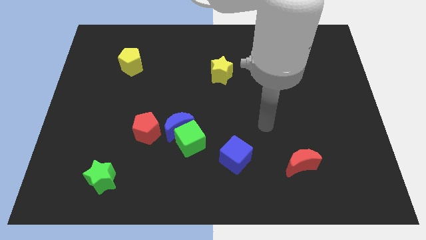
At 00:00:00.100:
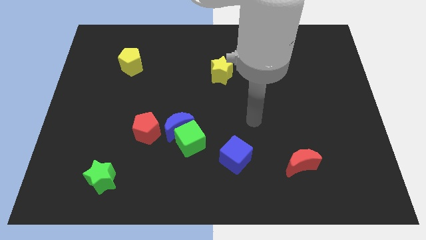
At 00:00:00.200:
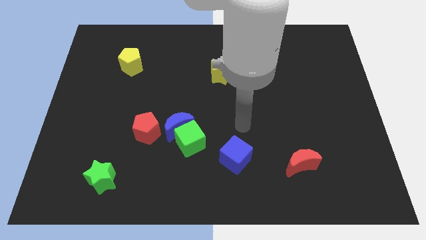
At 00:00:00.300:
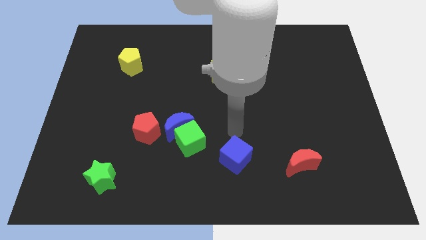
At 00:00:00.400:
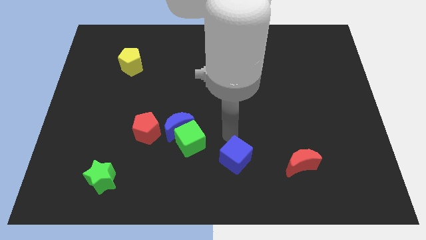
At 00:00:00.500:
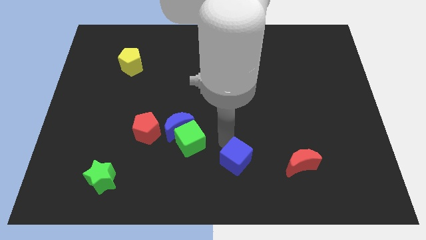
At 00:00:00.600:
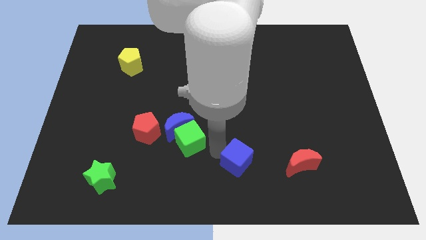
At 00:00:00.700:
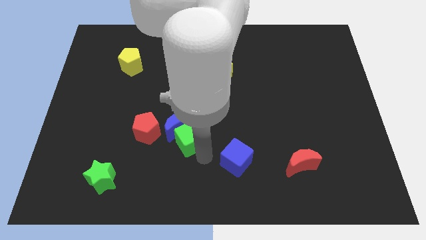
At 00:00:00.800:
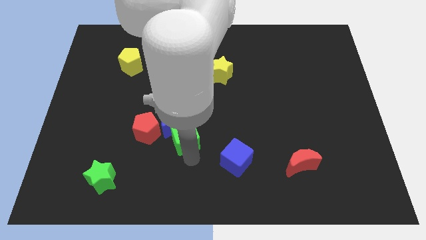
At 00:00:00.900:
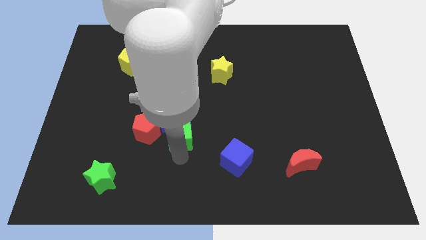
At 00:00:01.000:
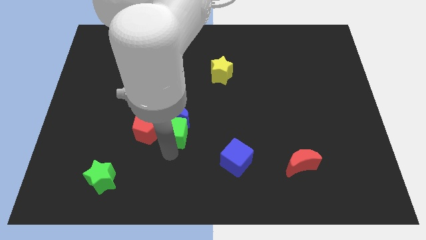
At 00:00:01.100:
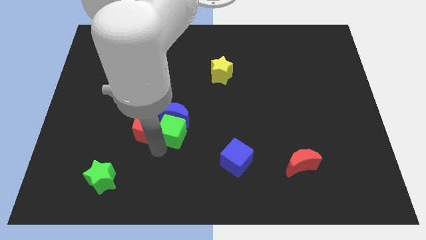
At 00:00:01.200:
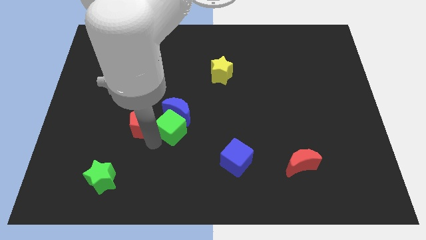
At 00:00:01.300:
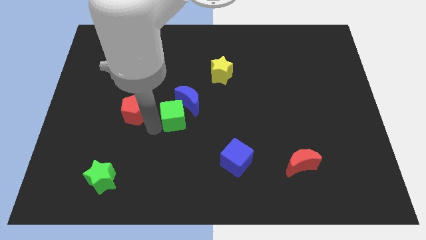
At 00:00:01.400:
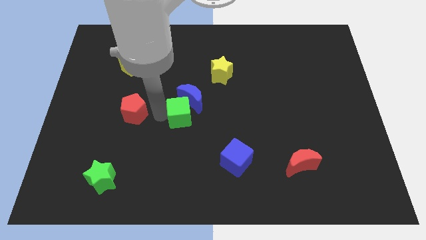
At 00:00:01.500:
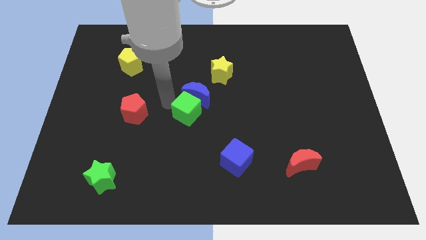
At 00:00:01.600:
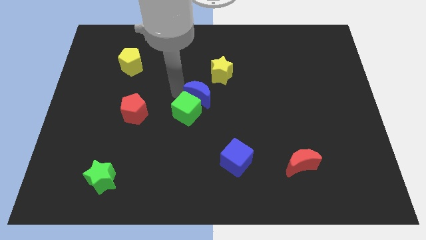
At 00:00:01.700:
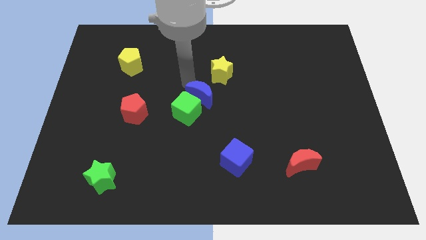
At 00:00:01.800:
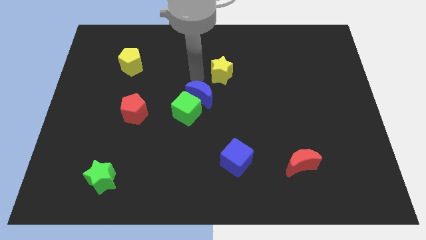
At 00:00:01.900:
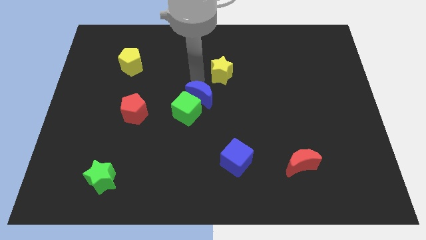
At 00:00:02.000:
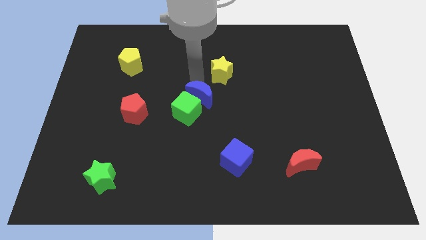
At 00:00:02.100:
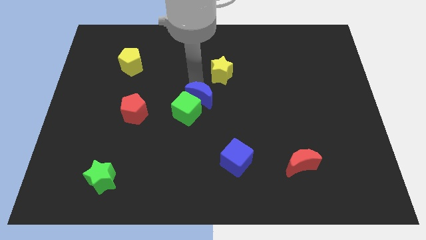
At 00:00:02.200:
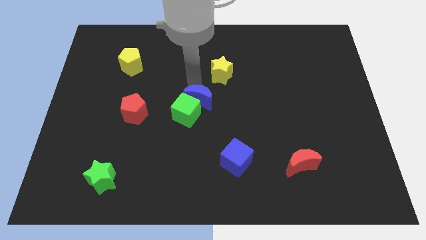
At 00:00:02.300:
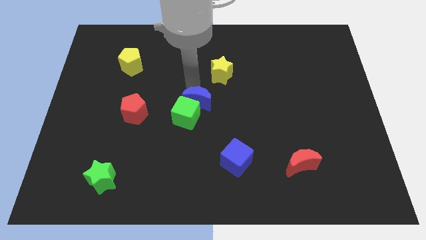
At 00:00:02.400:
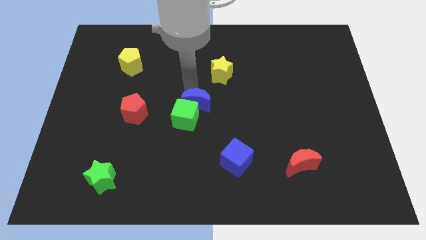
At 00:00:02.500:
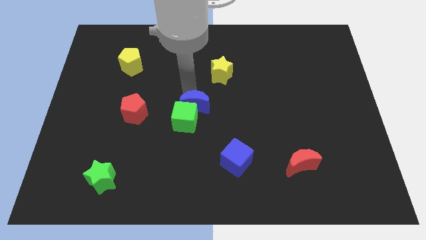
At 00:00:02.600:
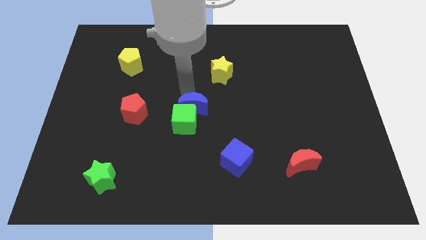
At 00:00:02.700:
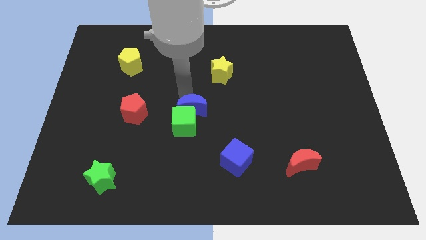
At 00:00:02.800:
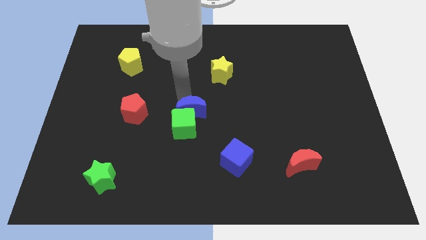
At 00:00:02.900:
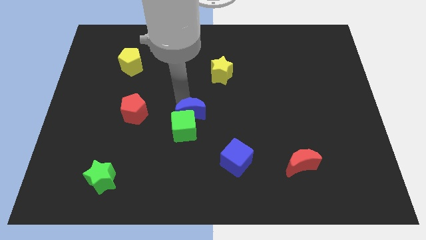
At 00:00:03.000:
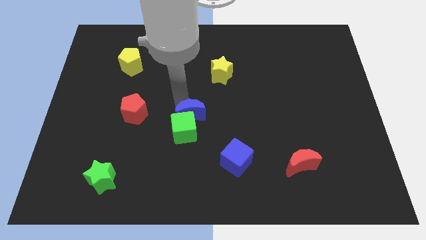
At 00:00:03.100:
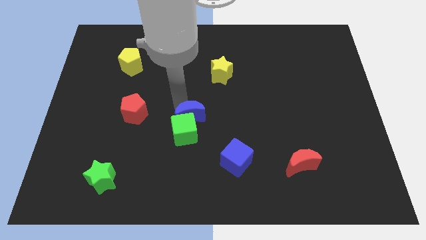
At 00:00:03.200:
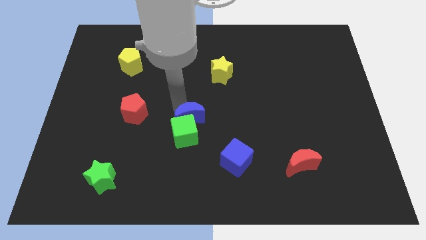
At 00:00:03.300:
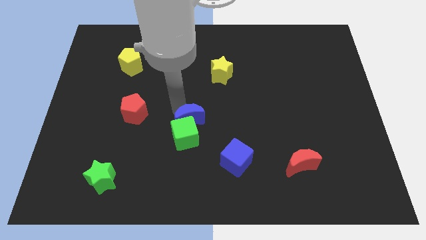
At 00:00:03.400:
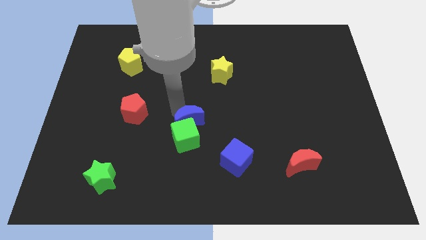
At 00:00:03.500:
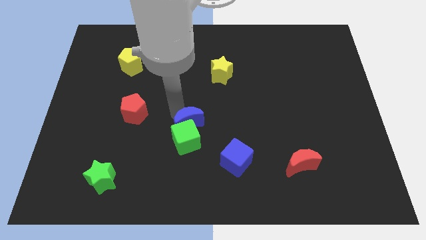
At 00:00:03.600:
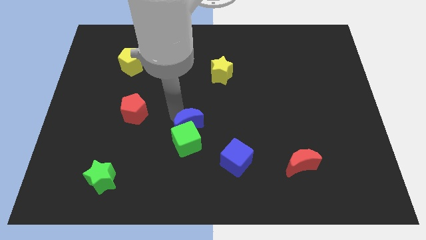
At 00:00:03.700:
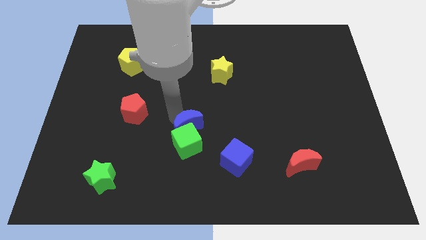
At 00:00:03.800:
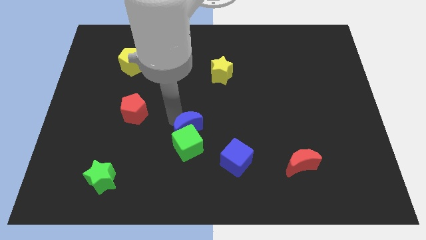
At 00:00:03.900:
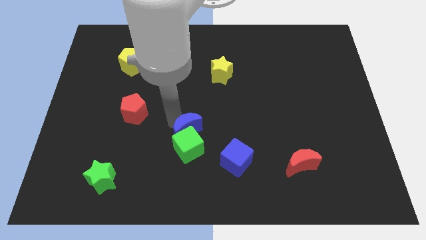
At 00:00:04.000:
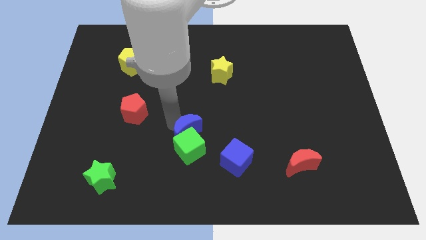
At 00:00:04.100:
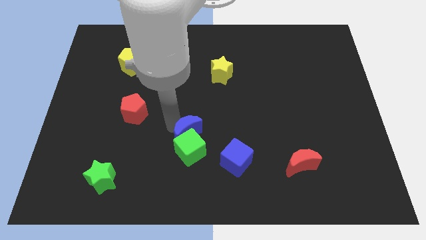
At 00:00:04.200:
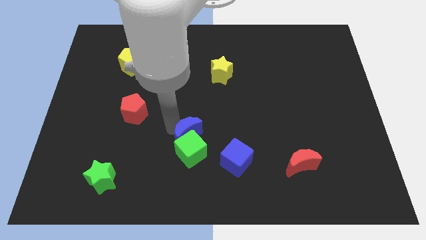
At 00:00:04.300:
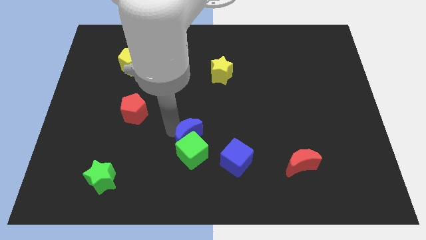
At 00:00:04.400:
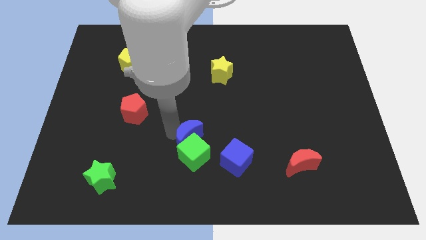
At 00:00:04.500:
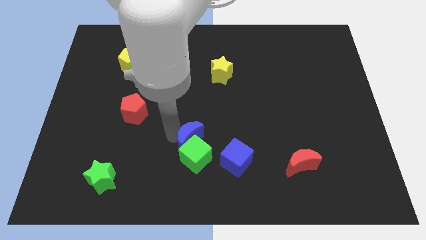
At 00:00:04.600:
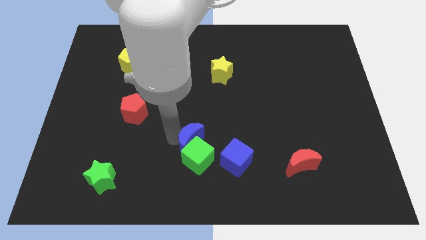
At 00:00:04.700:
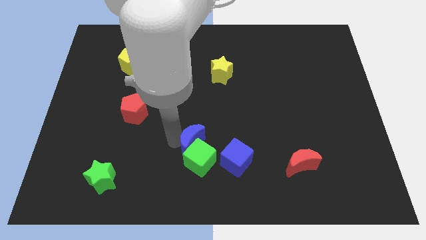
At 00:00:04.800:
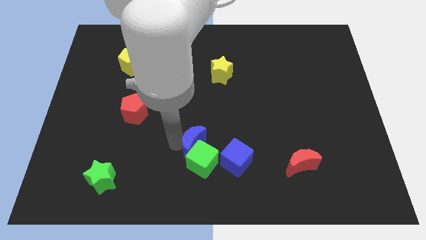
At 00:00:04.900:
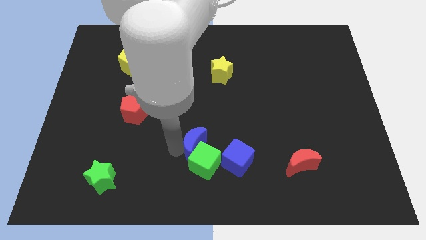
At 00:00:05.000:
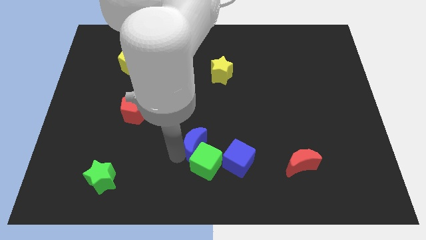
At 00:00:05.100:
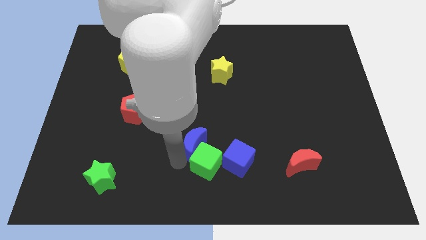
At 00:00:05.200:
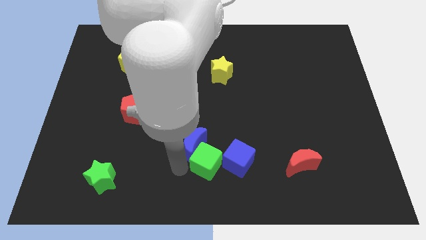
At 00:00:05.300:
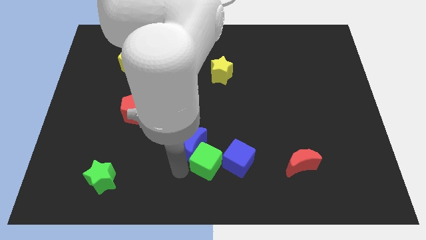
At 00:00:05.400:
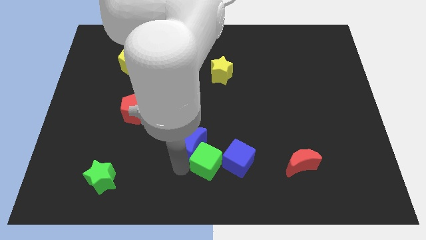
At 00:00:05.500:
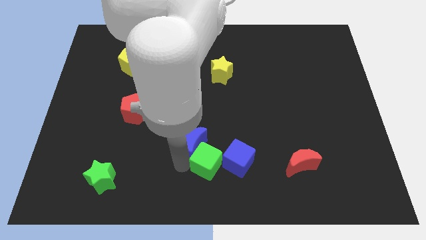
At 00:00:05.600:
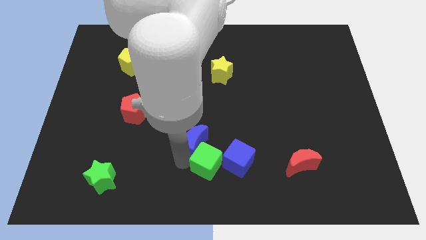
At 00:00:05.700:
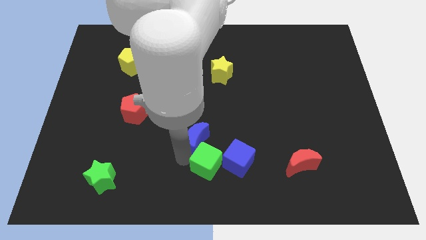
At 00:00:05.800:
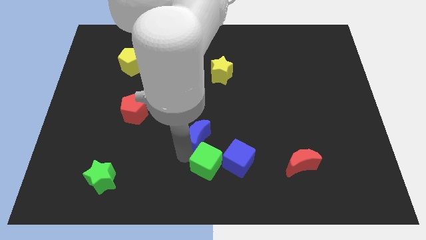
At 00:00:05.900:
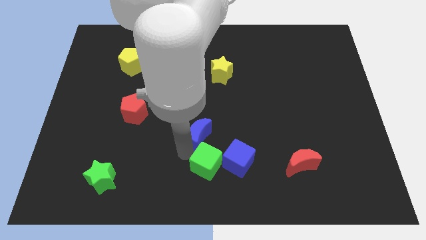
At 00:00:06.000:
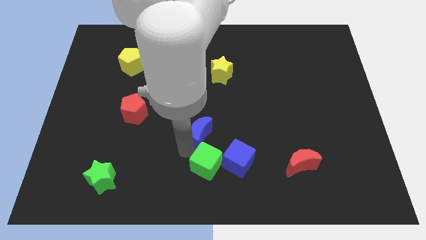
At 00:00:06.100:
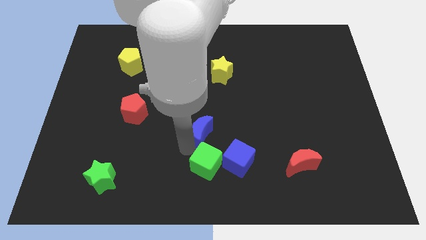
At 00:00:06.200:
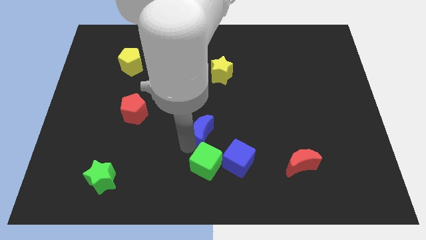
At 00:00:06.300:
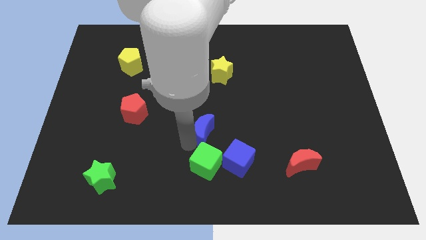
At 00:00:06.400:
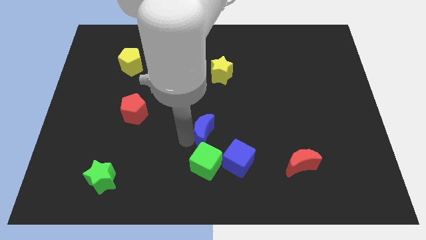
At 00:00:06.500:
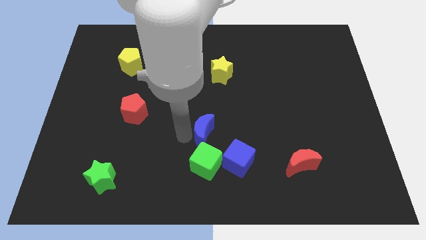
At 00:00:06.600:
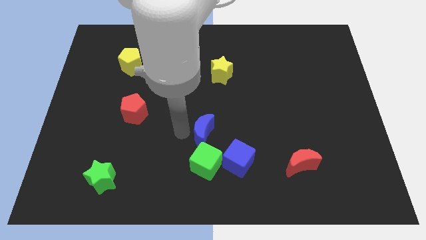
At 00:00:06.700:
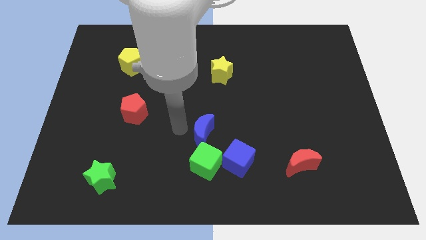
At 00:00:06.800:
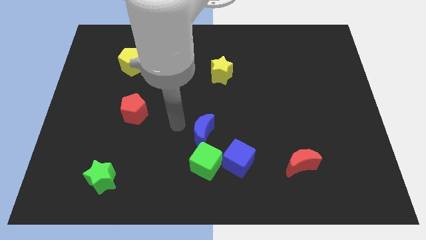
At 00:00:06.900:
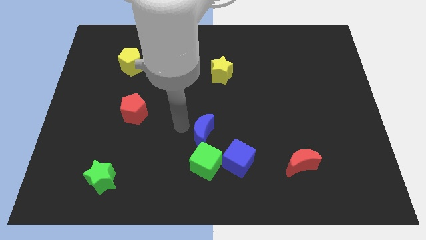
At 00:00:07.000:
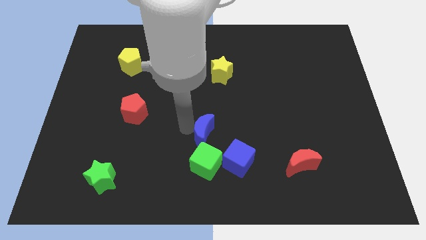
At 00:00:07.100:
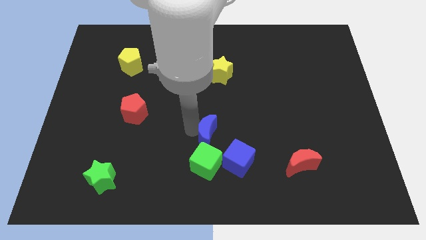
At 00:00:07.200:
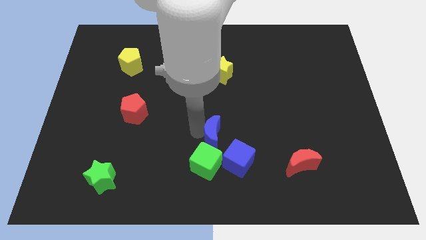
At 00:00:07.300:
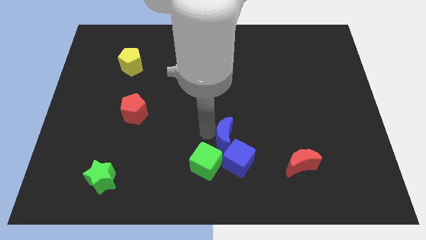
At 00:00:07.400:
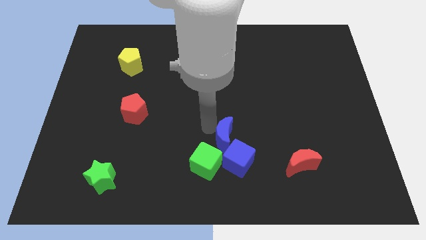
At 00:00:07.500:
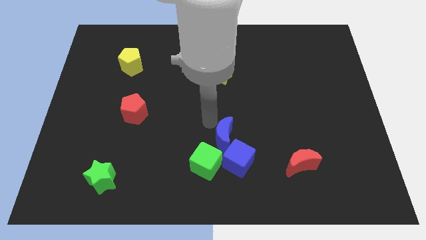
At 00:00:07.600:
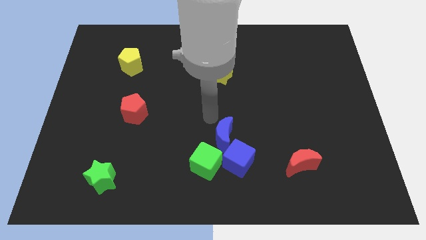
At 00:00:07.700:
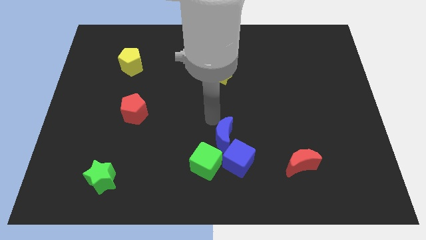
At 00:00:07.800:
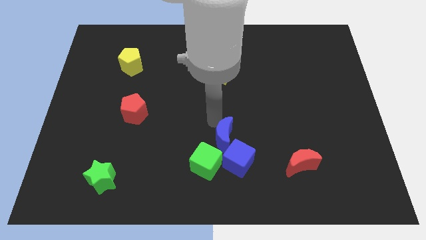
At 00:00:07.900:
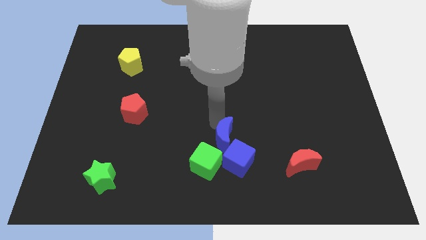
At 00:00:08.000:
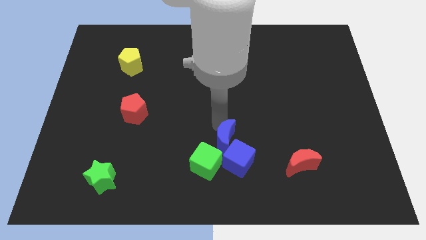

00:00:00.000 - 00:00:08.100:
push the blue moon next to the blue cube
